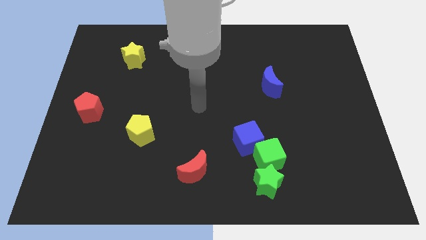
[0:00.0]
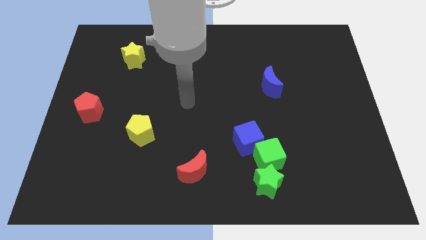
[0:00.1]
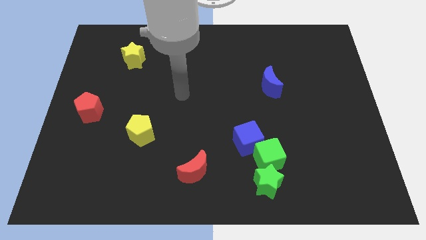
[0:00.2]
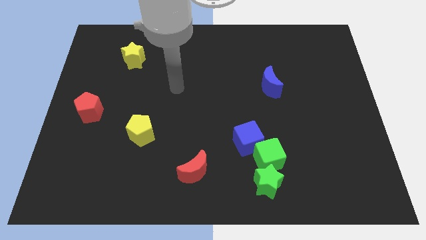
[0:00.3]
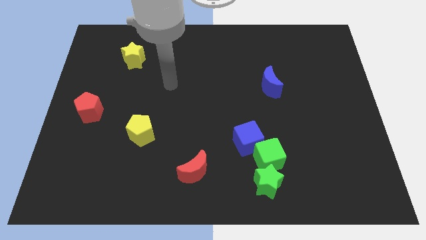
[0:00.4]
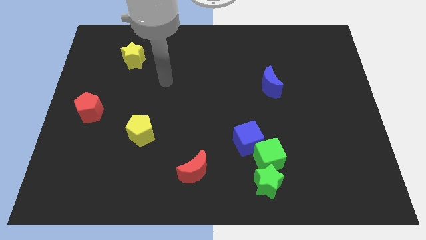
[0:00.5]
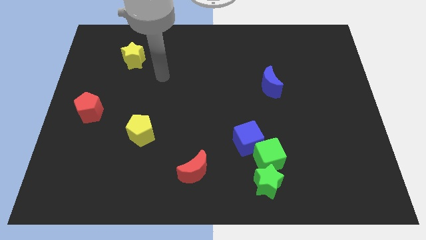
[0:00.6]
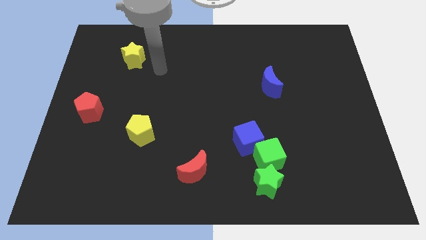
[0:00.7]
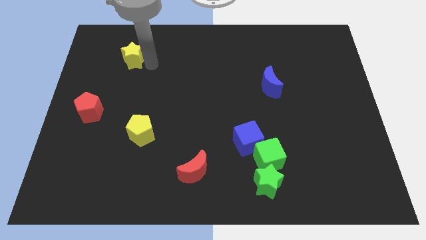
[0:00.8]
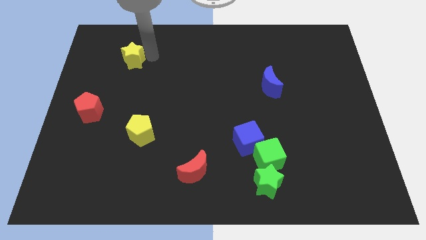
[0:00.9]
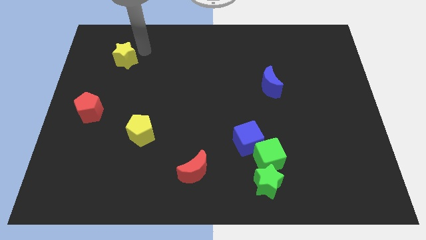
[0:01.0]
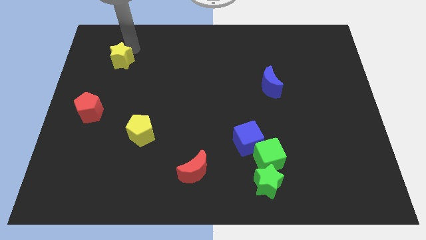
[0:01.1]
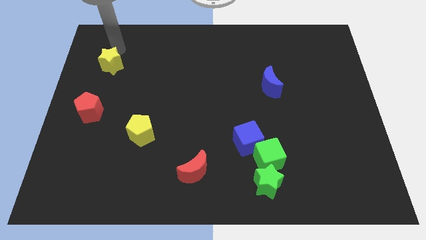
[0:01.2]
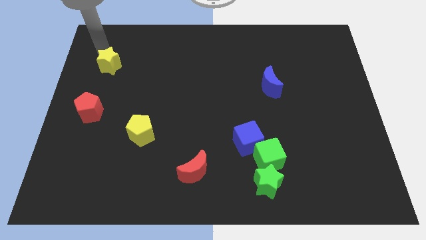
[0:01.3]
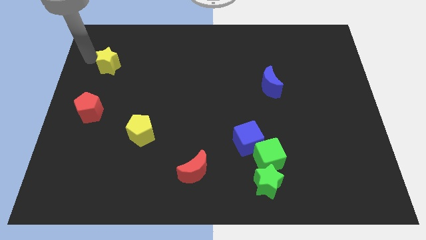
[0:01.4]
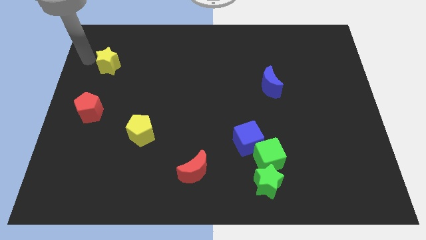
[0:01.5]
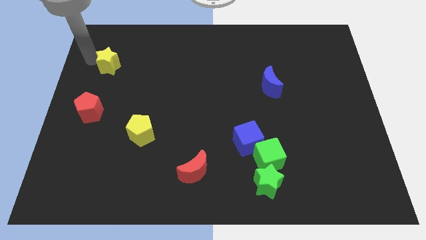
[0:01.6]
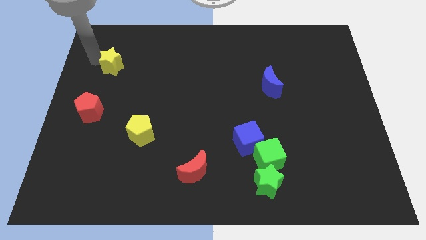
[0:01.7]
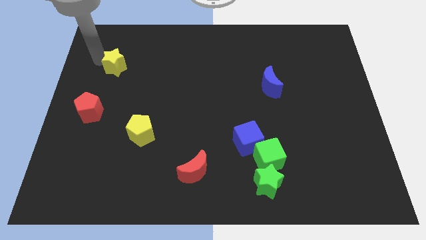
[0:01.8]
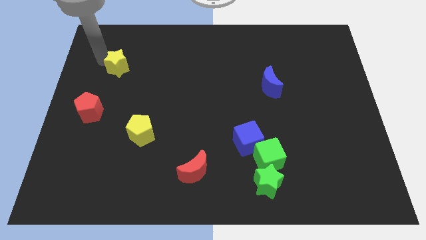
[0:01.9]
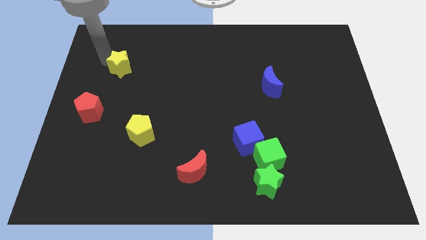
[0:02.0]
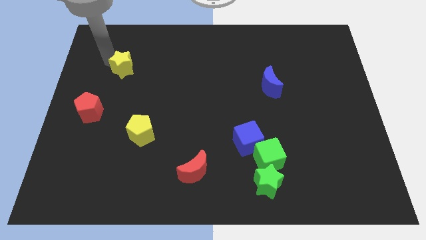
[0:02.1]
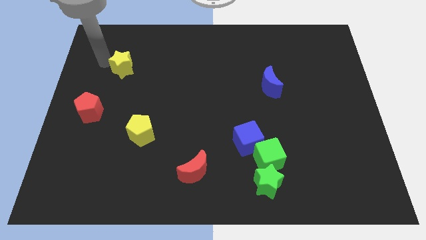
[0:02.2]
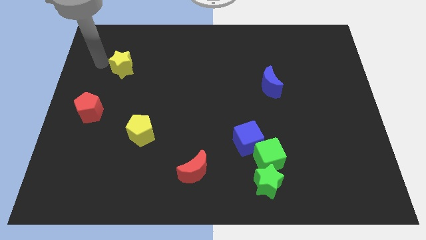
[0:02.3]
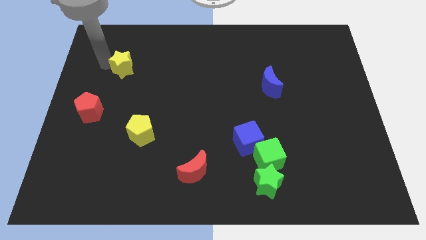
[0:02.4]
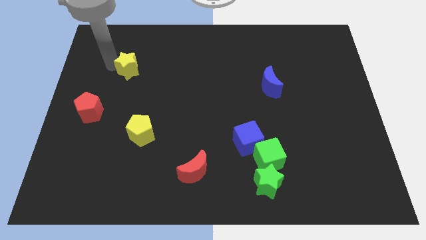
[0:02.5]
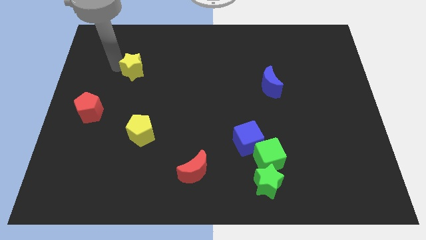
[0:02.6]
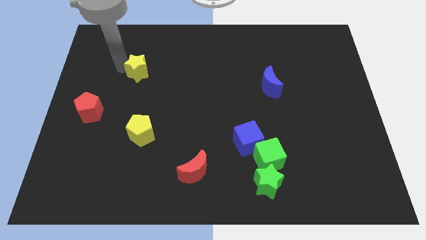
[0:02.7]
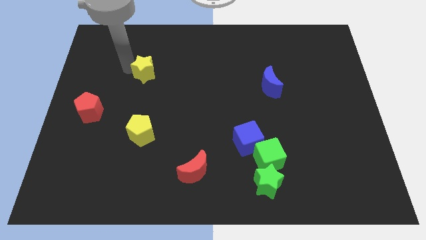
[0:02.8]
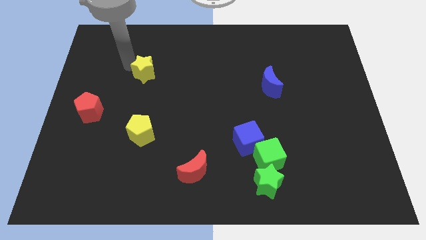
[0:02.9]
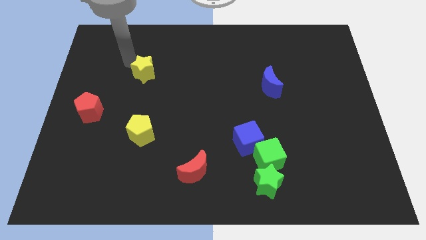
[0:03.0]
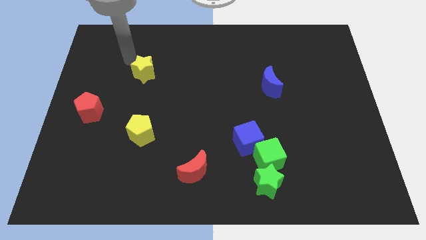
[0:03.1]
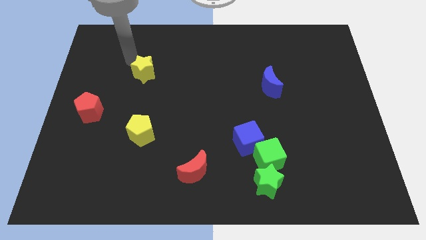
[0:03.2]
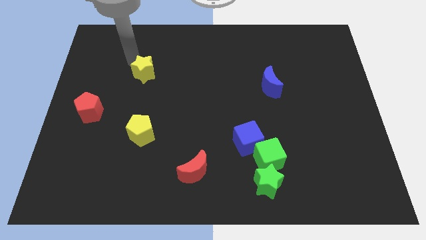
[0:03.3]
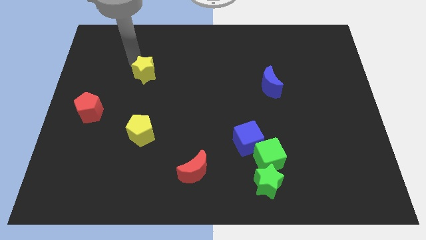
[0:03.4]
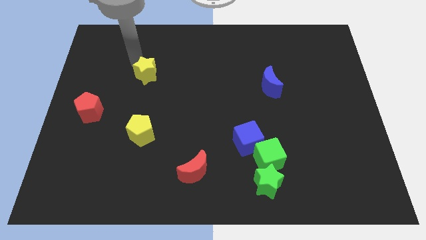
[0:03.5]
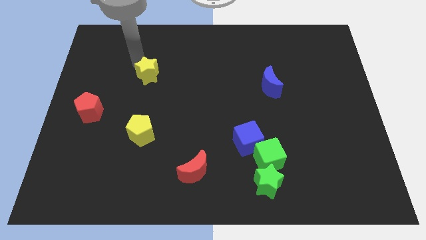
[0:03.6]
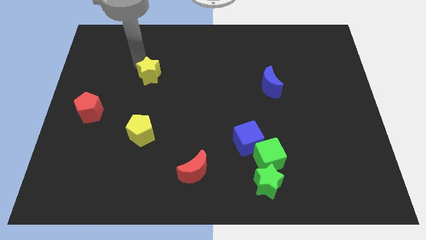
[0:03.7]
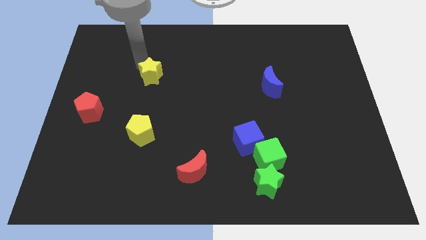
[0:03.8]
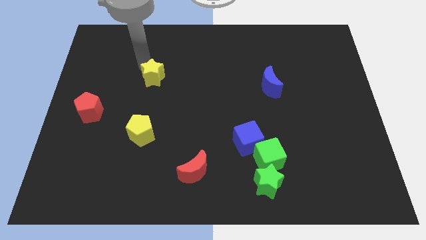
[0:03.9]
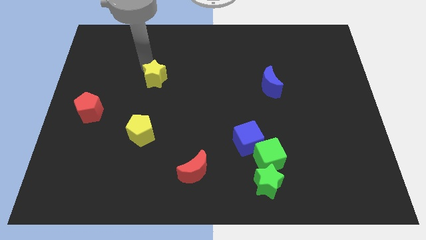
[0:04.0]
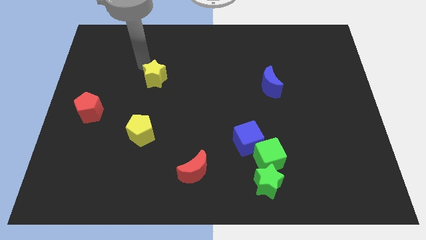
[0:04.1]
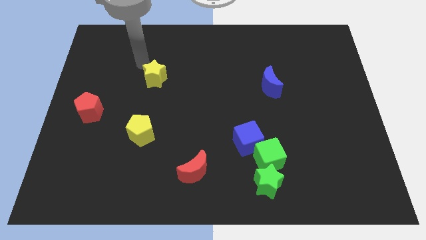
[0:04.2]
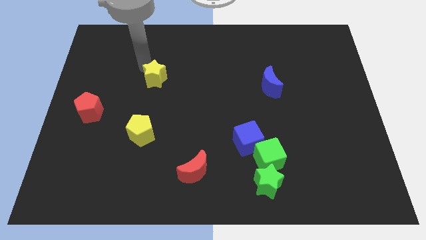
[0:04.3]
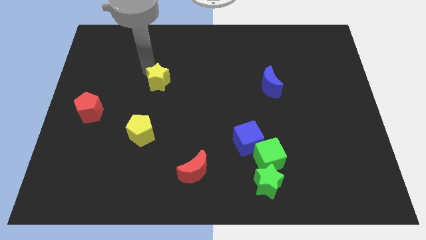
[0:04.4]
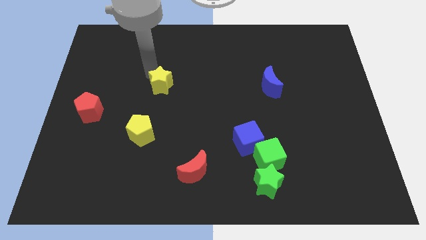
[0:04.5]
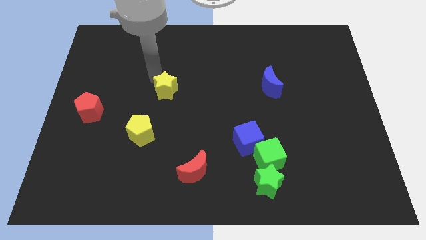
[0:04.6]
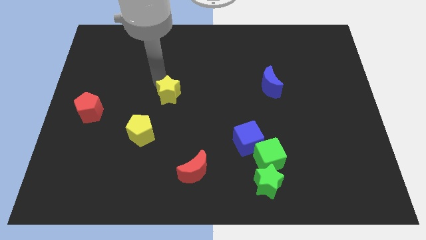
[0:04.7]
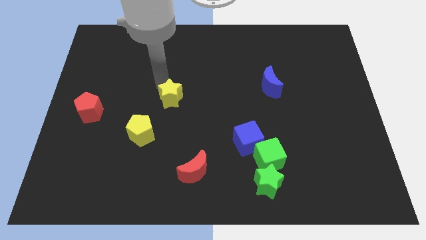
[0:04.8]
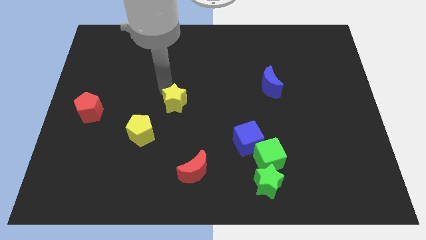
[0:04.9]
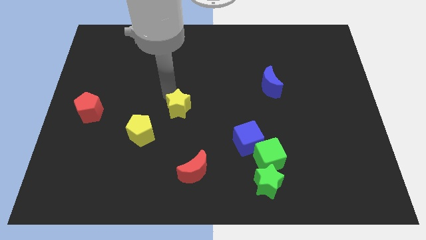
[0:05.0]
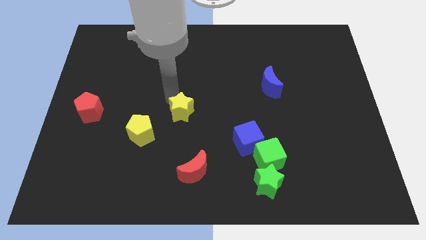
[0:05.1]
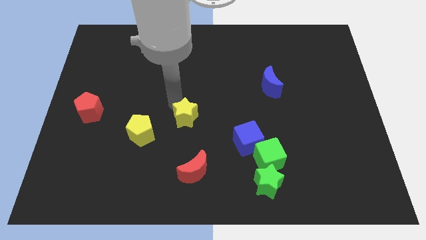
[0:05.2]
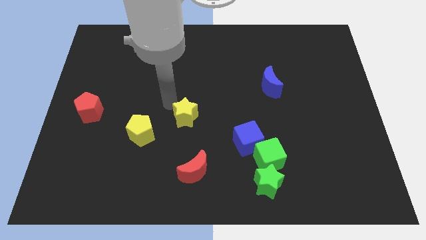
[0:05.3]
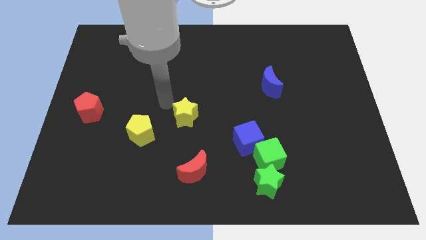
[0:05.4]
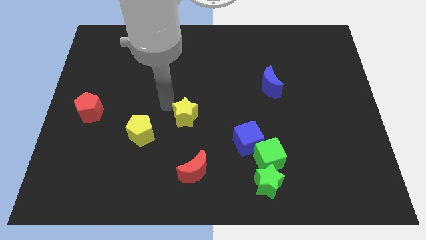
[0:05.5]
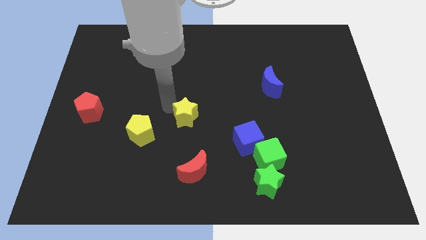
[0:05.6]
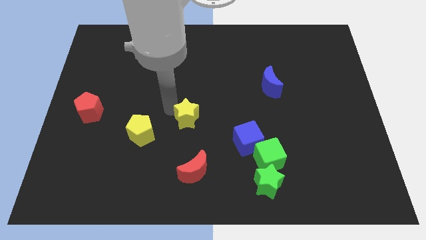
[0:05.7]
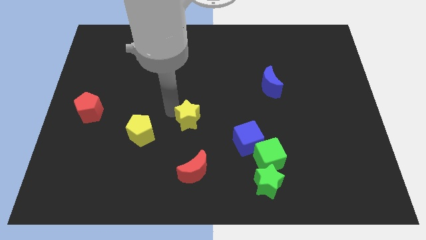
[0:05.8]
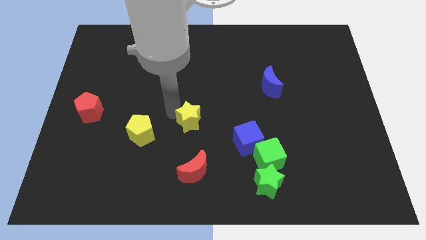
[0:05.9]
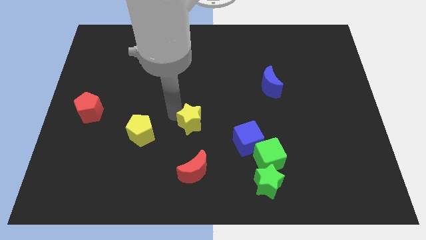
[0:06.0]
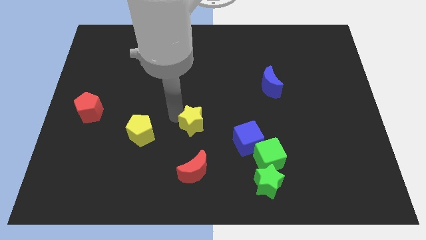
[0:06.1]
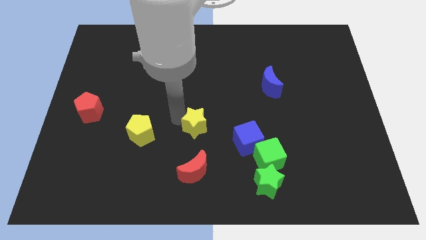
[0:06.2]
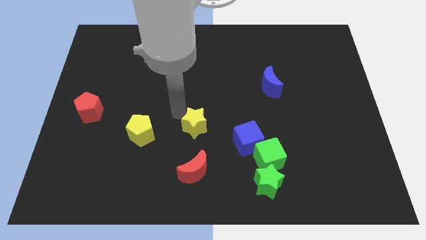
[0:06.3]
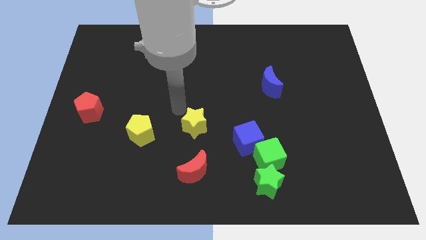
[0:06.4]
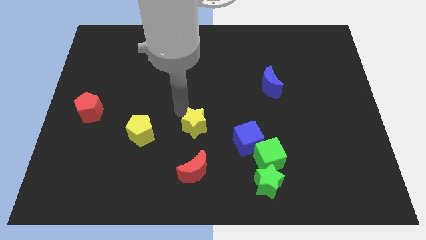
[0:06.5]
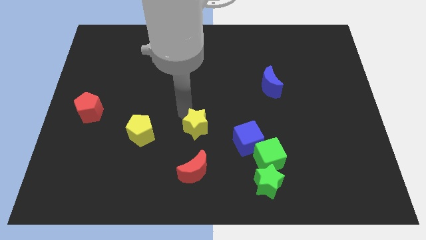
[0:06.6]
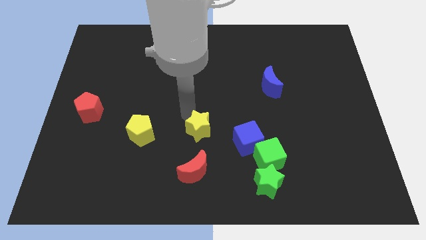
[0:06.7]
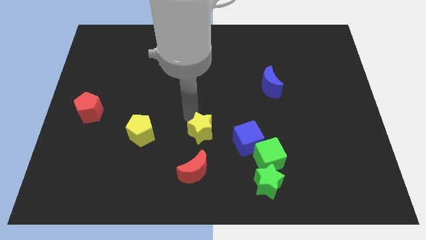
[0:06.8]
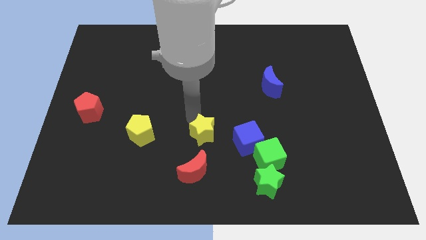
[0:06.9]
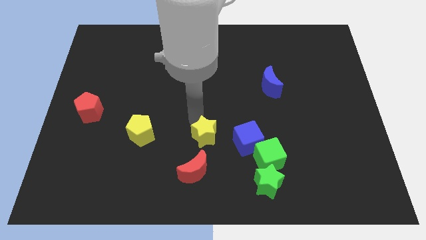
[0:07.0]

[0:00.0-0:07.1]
slide the yellow star to the top right of the red moon
